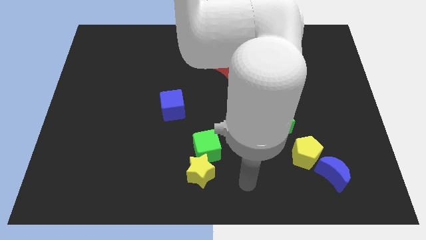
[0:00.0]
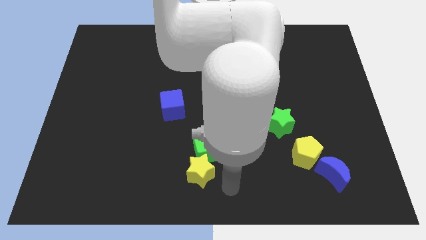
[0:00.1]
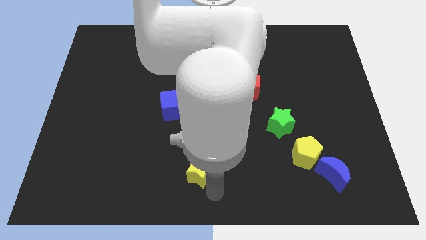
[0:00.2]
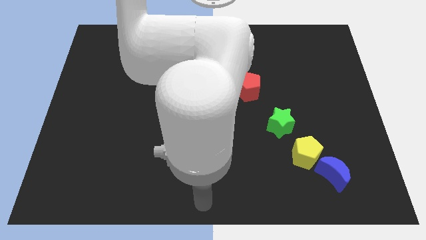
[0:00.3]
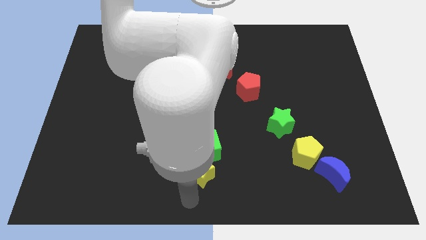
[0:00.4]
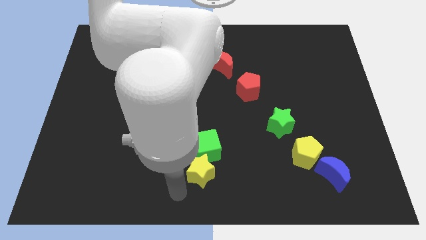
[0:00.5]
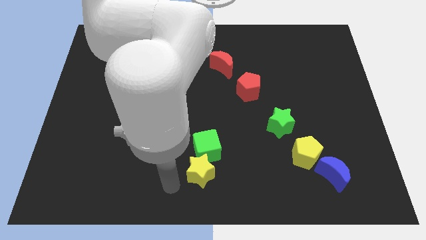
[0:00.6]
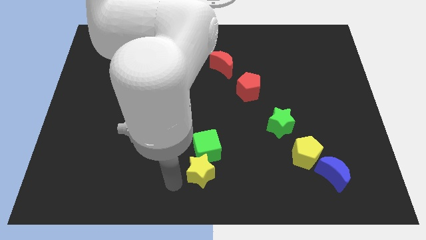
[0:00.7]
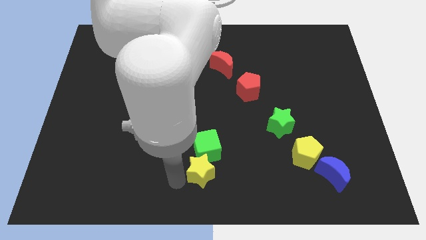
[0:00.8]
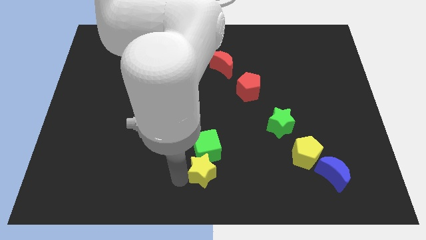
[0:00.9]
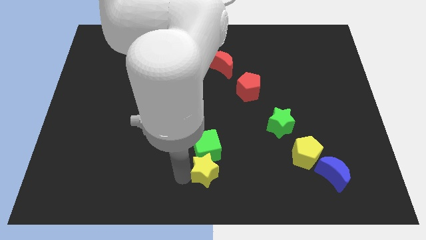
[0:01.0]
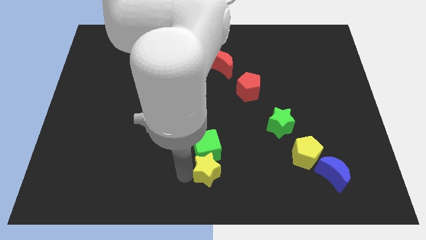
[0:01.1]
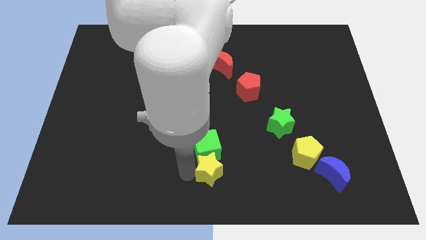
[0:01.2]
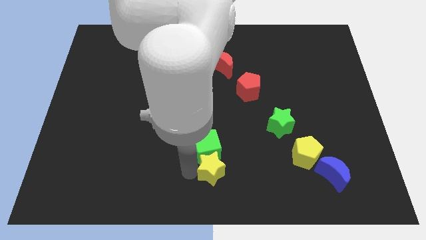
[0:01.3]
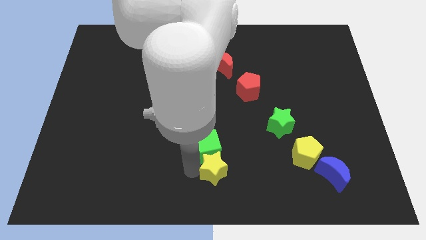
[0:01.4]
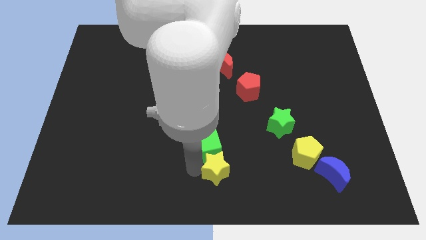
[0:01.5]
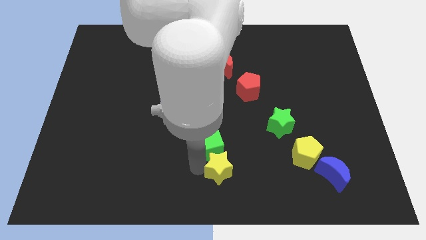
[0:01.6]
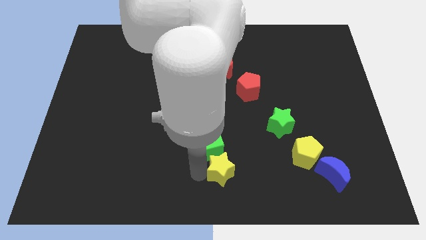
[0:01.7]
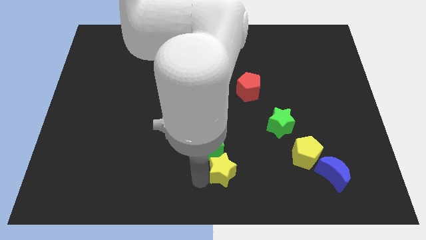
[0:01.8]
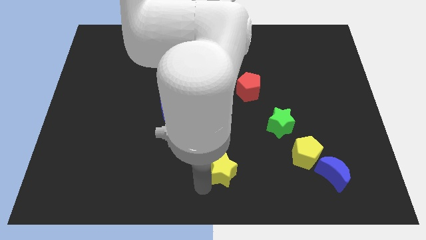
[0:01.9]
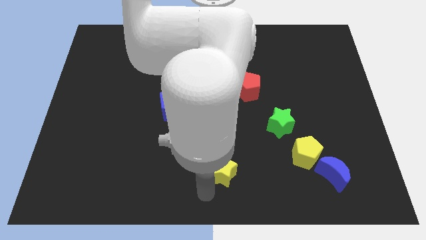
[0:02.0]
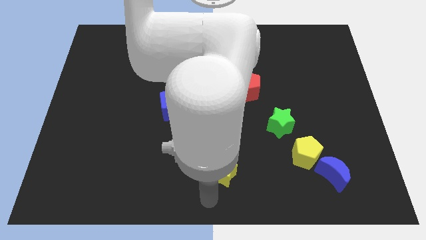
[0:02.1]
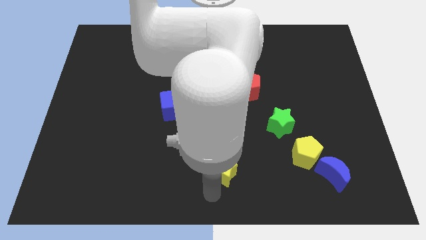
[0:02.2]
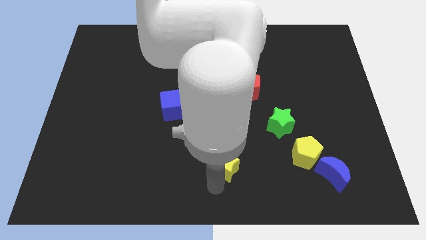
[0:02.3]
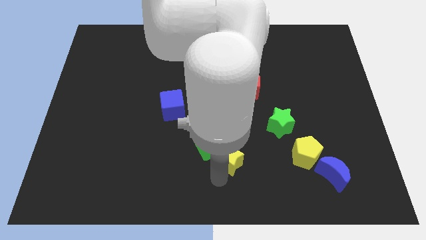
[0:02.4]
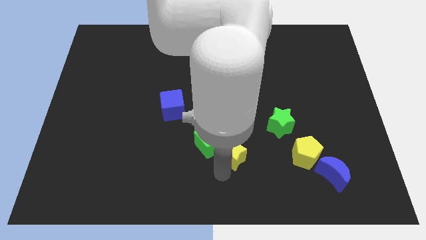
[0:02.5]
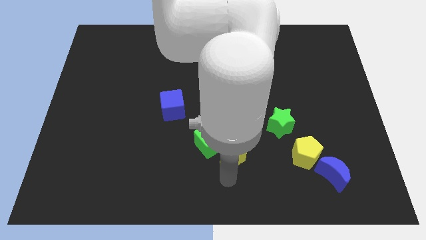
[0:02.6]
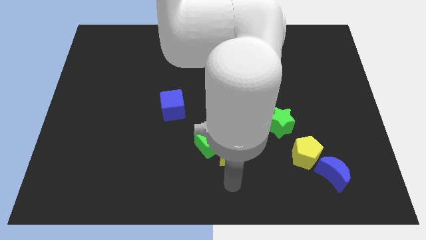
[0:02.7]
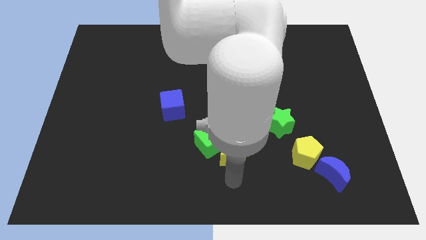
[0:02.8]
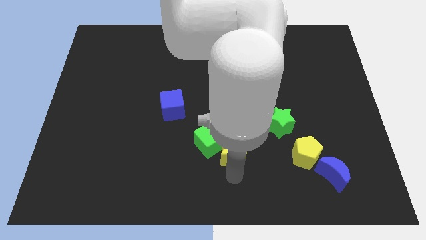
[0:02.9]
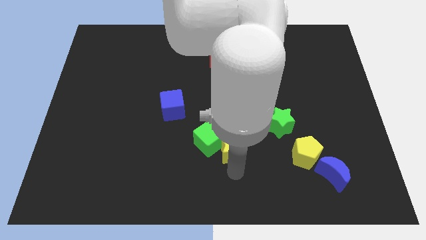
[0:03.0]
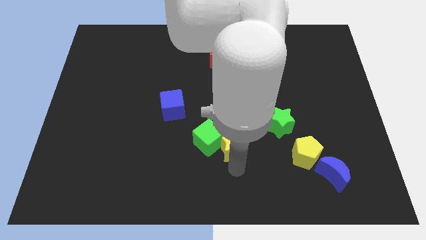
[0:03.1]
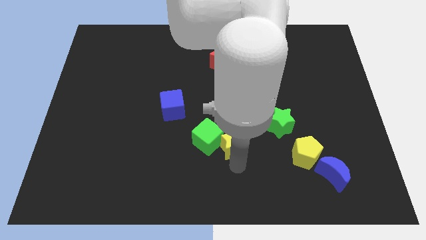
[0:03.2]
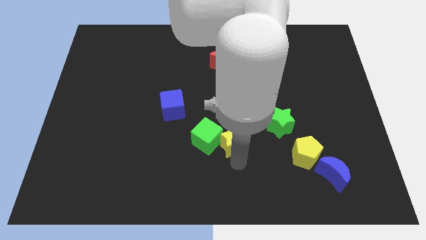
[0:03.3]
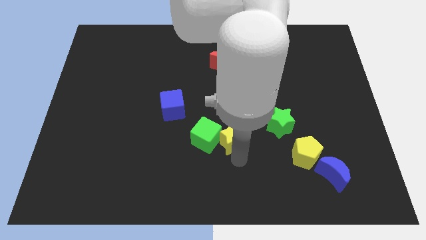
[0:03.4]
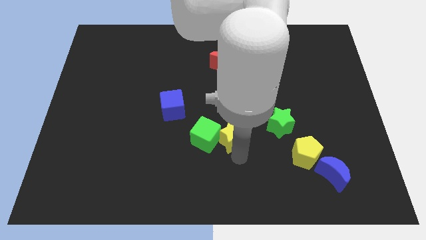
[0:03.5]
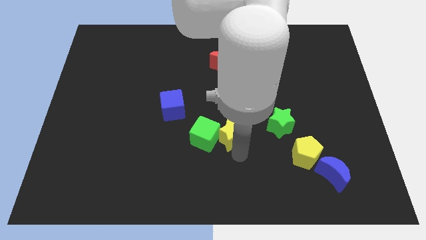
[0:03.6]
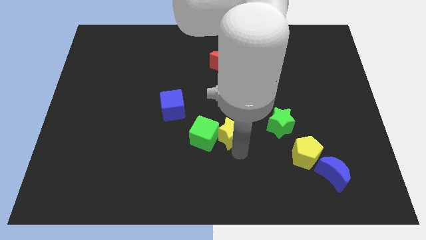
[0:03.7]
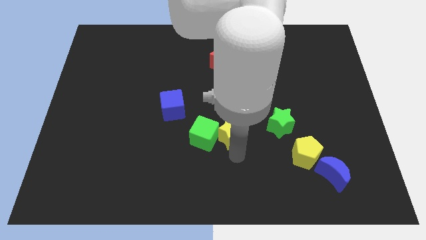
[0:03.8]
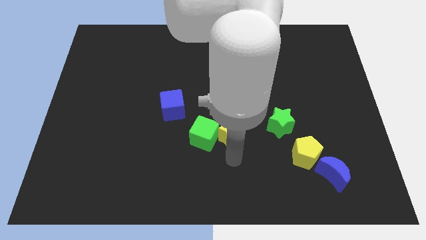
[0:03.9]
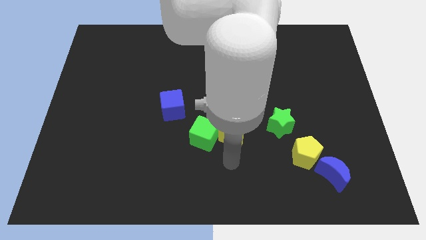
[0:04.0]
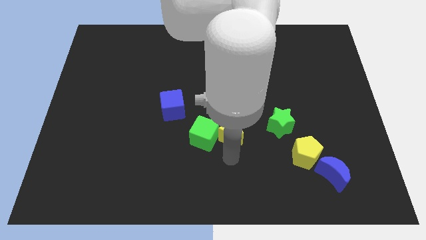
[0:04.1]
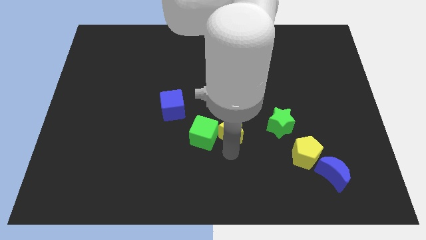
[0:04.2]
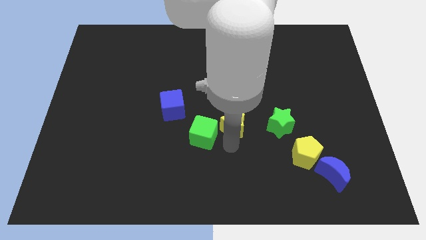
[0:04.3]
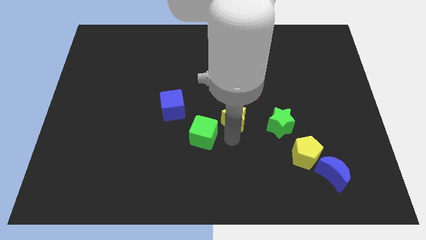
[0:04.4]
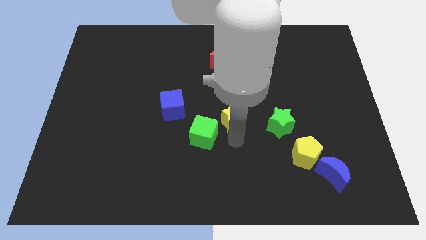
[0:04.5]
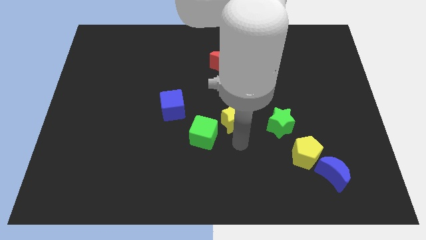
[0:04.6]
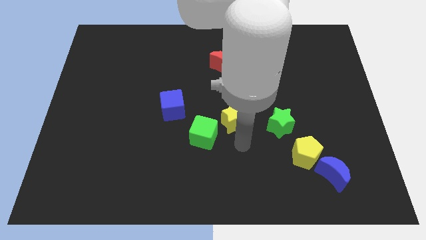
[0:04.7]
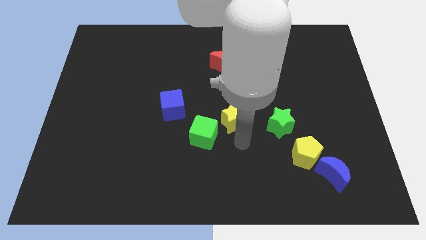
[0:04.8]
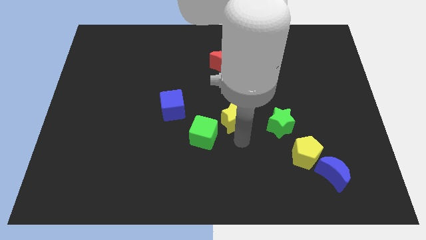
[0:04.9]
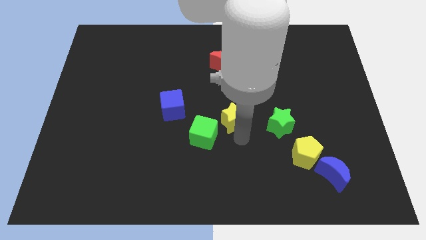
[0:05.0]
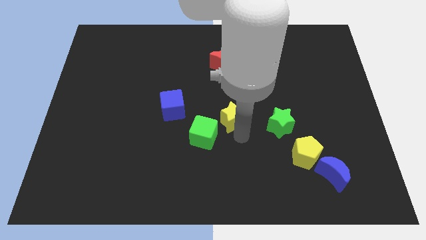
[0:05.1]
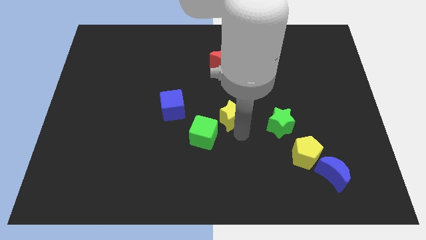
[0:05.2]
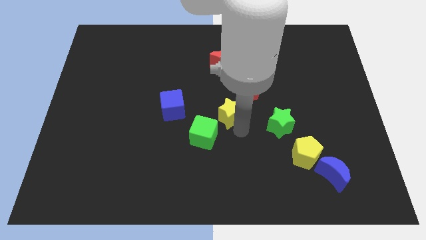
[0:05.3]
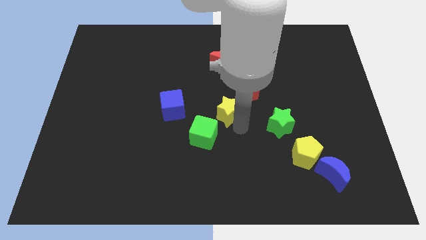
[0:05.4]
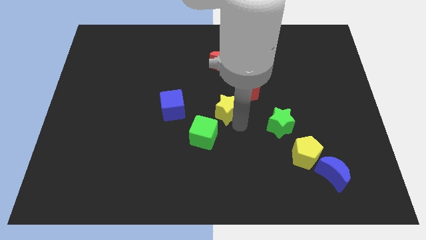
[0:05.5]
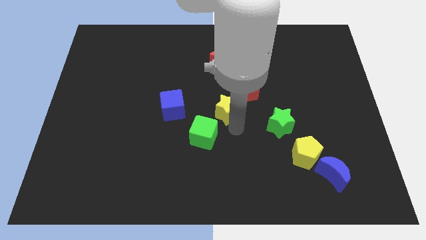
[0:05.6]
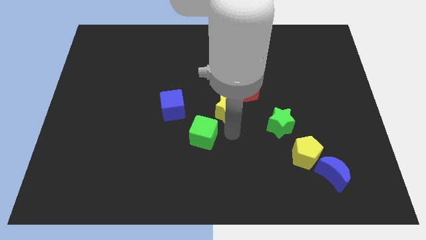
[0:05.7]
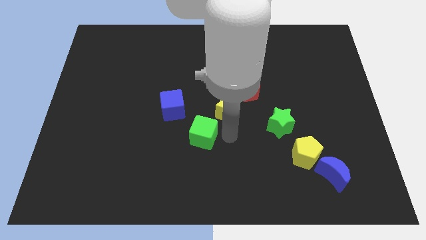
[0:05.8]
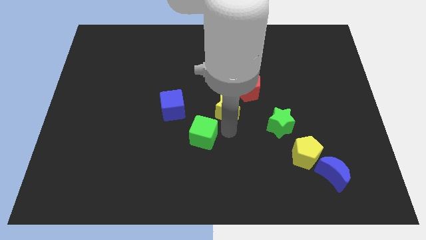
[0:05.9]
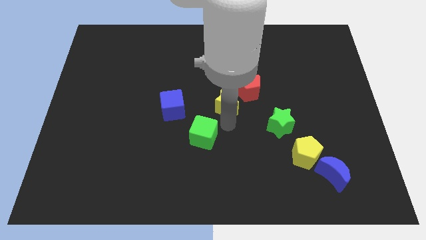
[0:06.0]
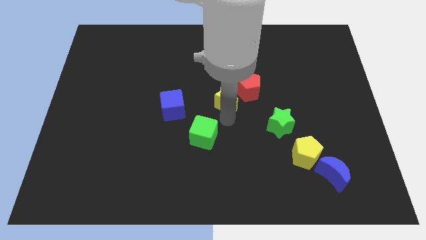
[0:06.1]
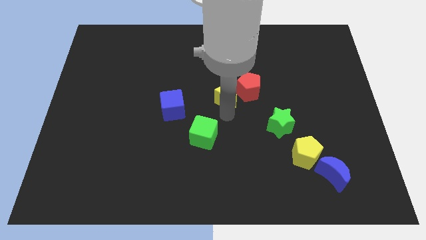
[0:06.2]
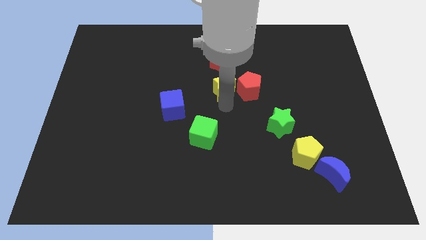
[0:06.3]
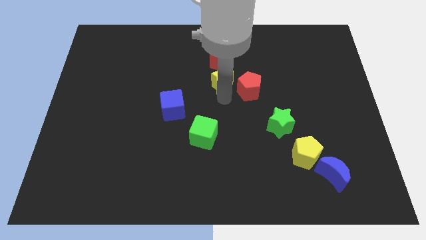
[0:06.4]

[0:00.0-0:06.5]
slide the yellow star close to the red moon

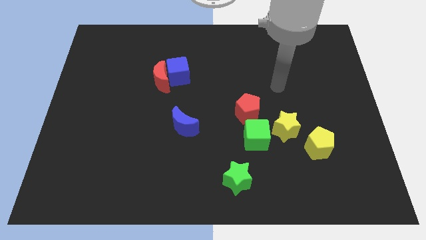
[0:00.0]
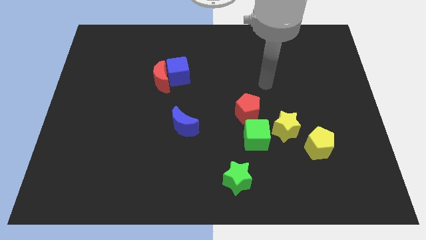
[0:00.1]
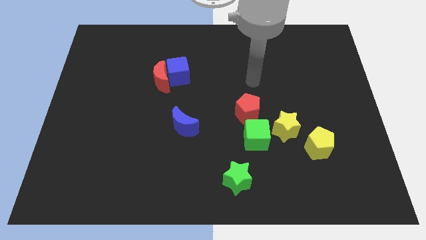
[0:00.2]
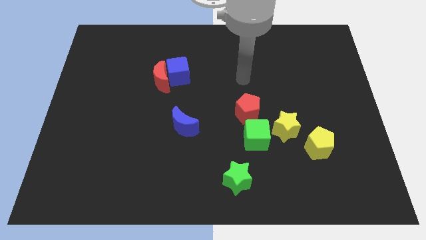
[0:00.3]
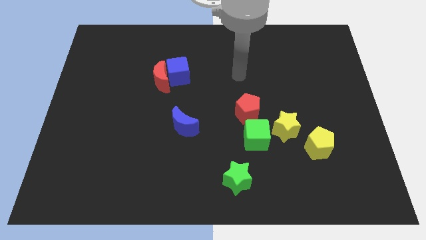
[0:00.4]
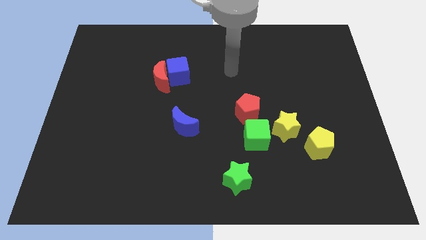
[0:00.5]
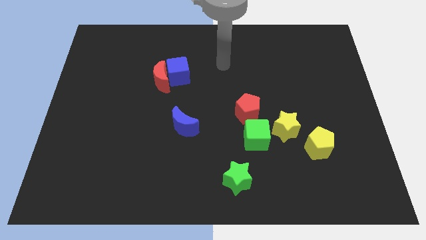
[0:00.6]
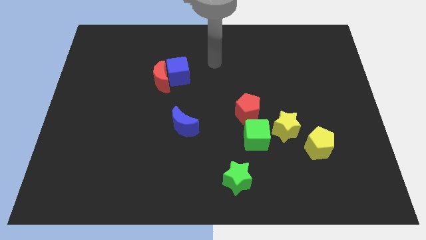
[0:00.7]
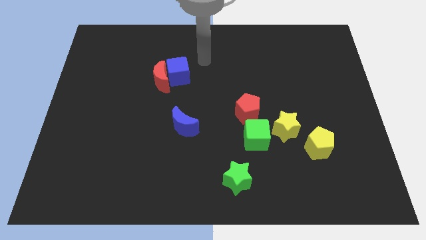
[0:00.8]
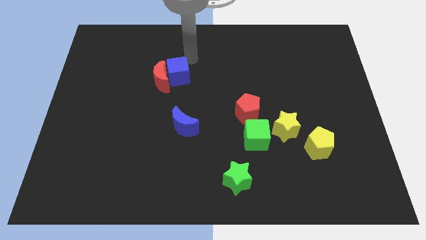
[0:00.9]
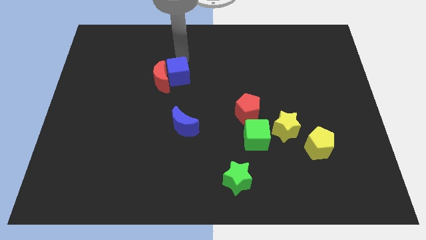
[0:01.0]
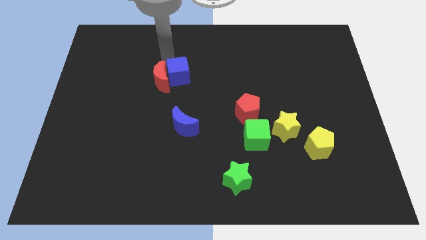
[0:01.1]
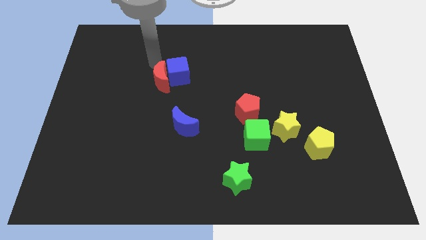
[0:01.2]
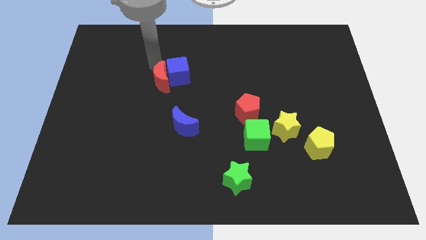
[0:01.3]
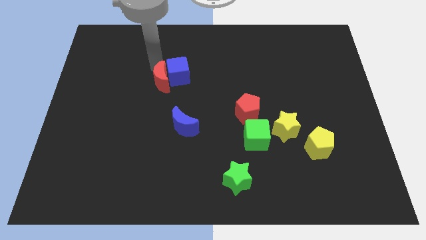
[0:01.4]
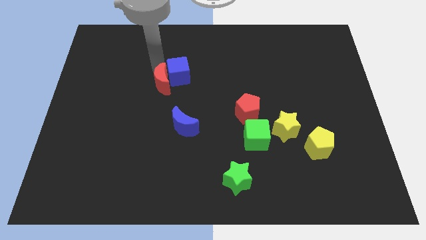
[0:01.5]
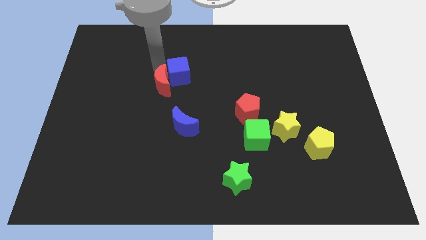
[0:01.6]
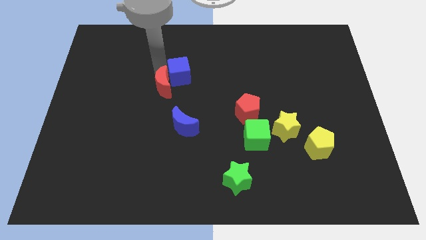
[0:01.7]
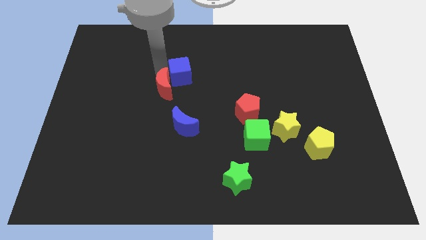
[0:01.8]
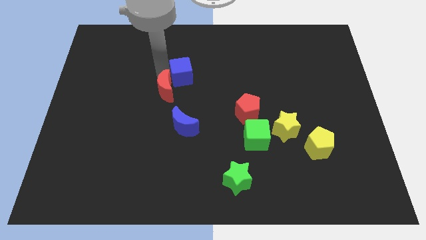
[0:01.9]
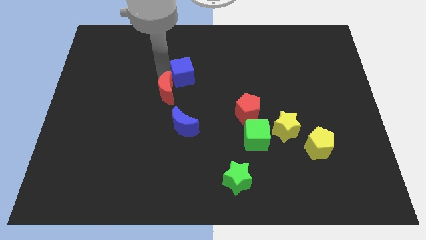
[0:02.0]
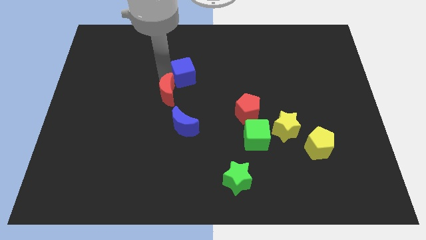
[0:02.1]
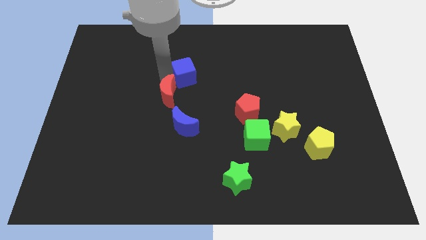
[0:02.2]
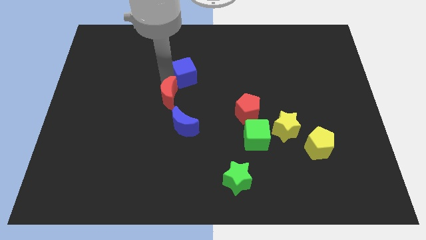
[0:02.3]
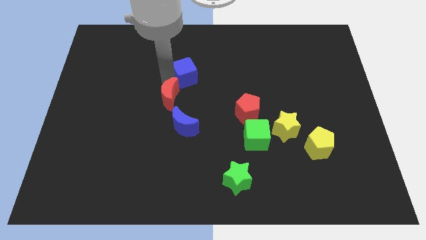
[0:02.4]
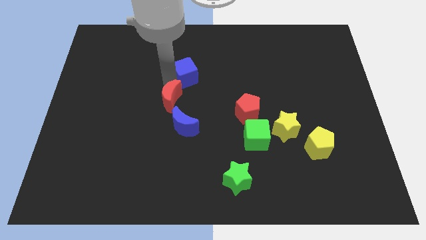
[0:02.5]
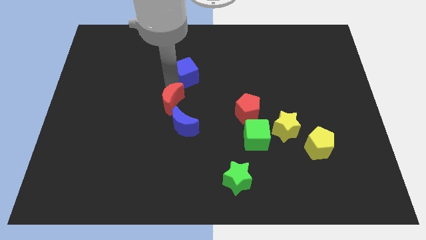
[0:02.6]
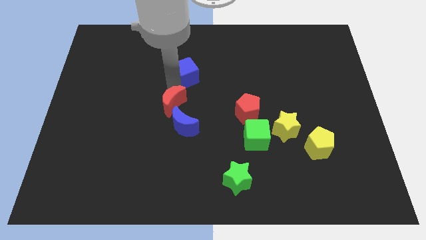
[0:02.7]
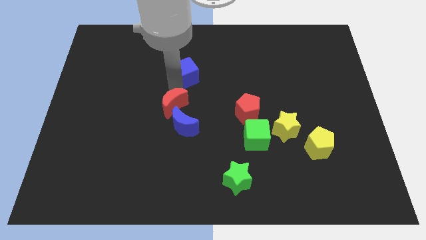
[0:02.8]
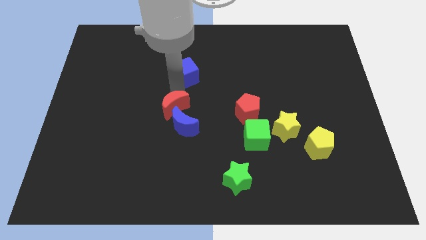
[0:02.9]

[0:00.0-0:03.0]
push the red moon next to the blue moon
